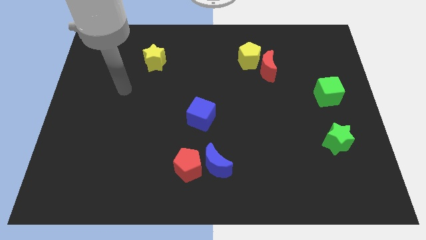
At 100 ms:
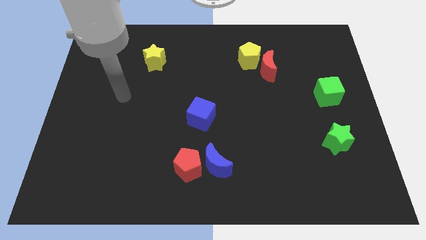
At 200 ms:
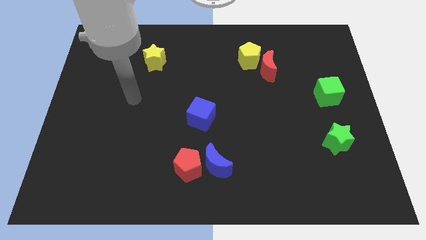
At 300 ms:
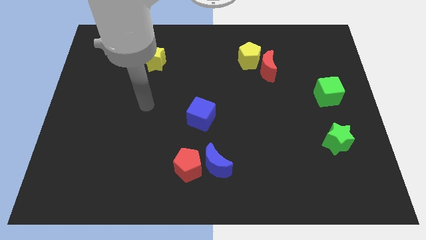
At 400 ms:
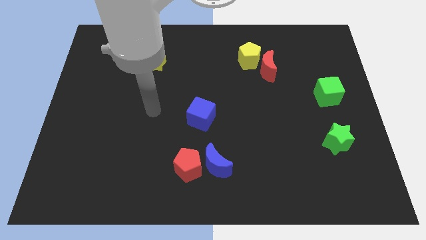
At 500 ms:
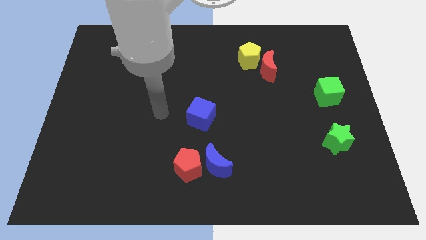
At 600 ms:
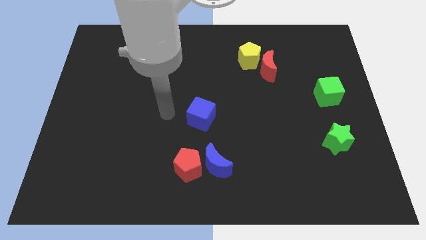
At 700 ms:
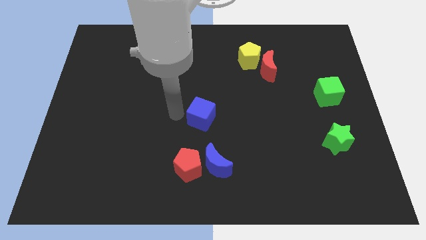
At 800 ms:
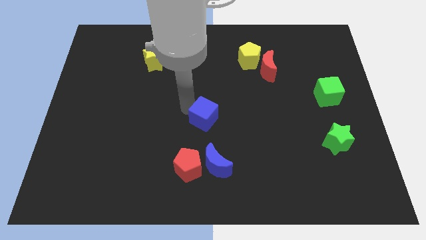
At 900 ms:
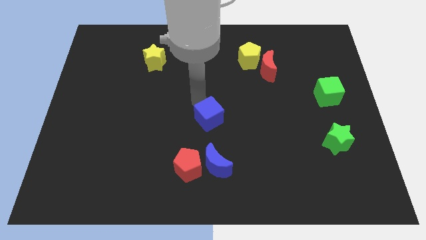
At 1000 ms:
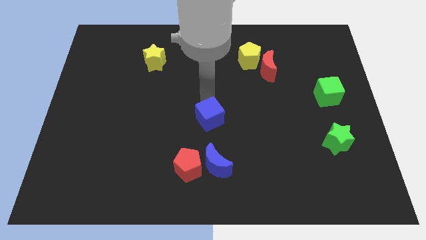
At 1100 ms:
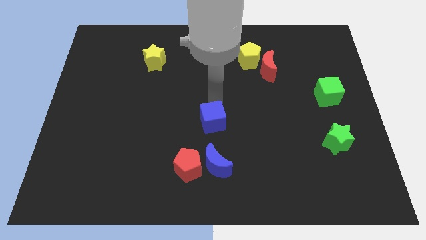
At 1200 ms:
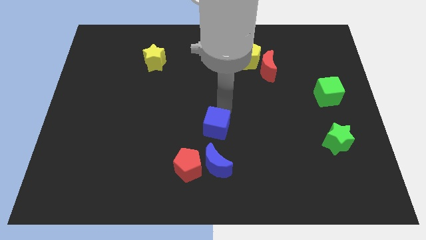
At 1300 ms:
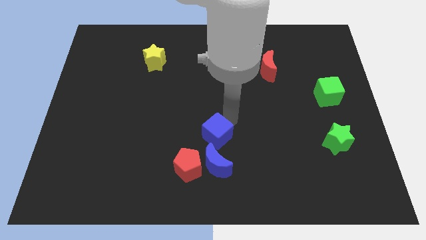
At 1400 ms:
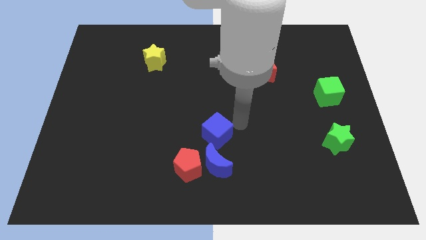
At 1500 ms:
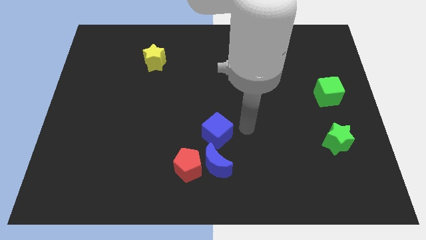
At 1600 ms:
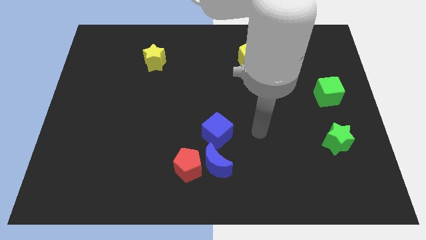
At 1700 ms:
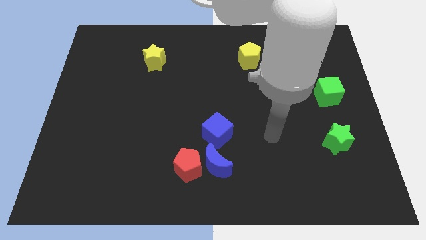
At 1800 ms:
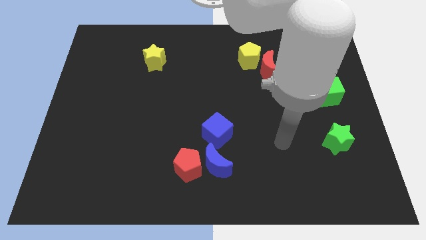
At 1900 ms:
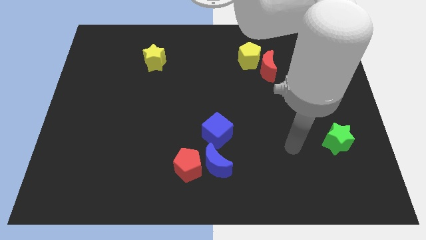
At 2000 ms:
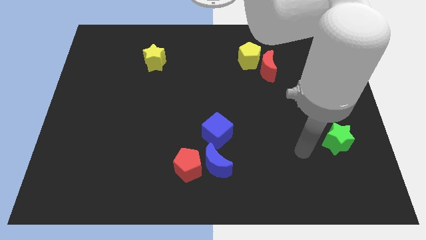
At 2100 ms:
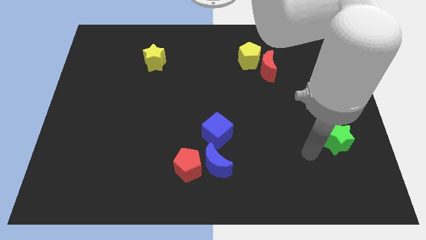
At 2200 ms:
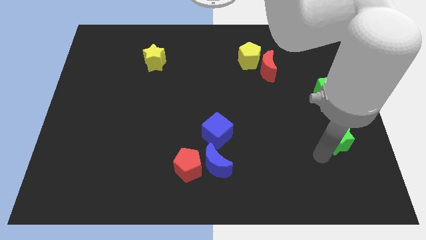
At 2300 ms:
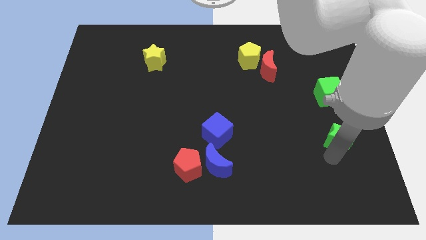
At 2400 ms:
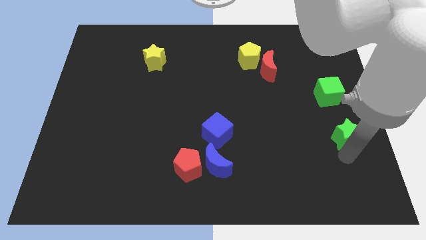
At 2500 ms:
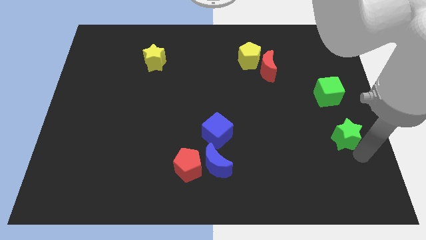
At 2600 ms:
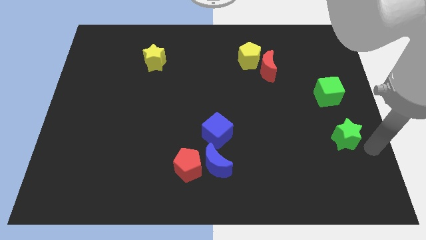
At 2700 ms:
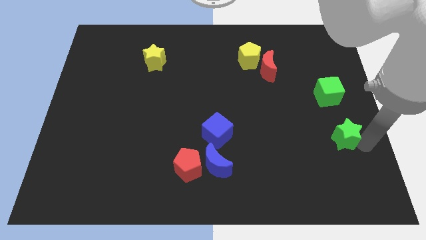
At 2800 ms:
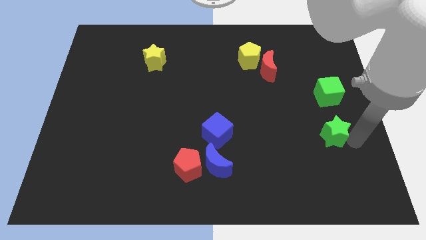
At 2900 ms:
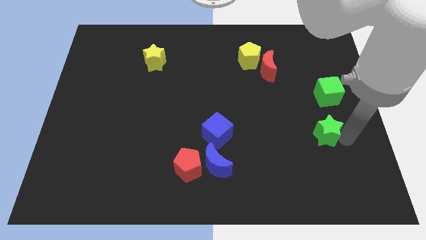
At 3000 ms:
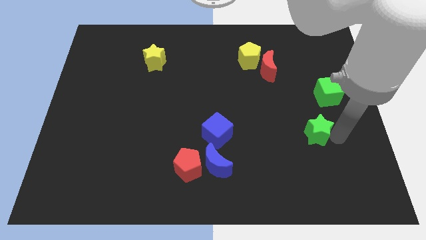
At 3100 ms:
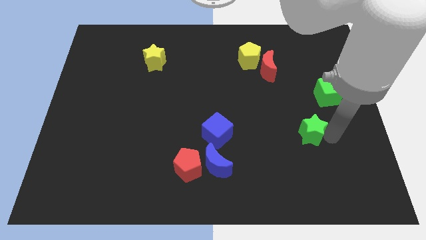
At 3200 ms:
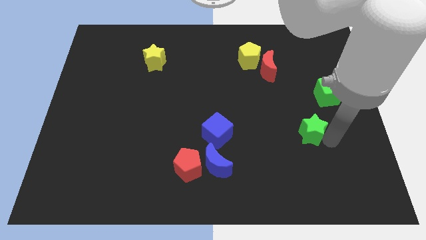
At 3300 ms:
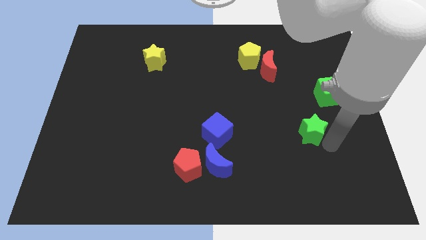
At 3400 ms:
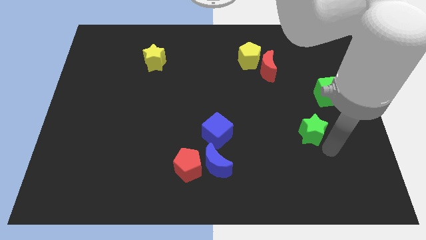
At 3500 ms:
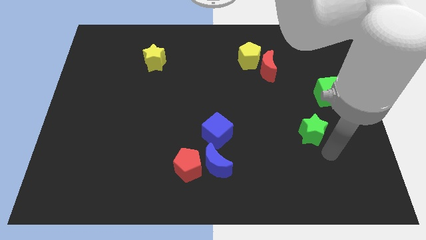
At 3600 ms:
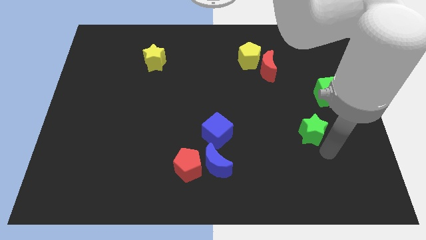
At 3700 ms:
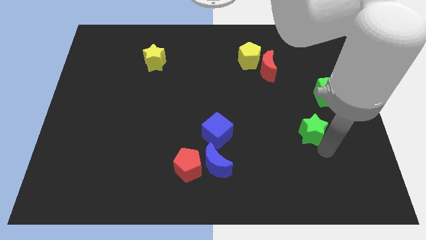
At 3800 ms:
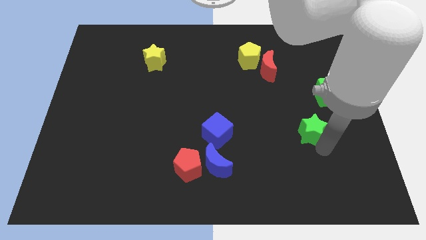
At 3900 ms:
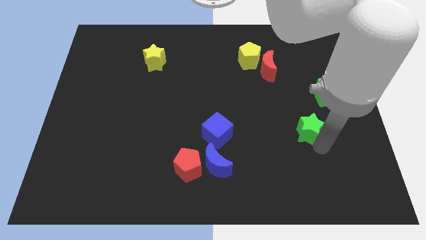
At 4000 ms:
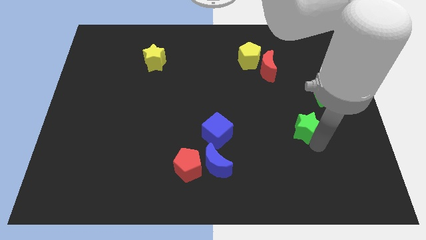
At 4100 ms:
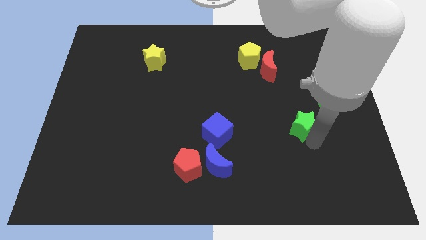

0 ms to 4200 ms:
push the green star diagonally upwards and left somewhat

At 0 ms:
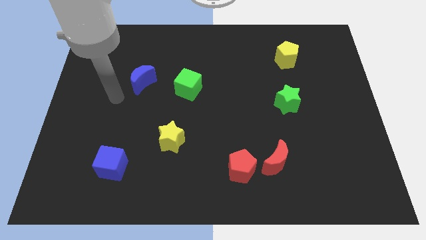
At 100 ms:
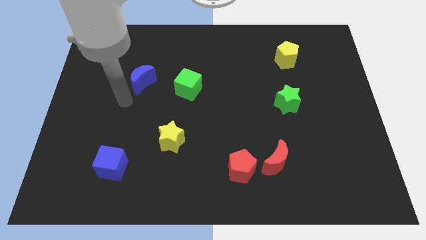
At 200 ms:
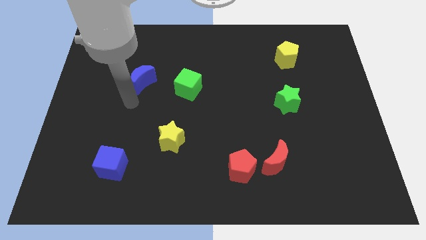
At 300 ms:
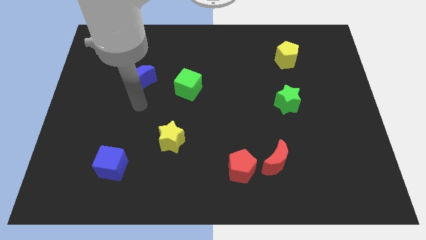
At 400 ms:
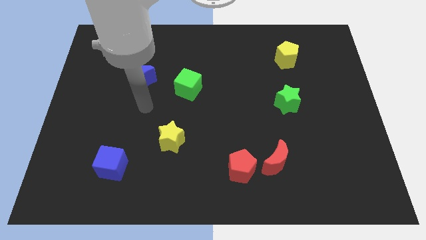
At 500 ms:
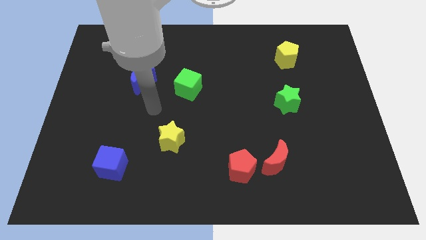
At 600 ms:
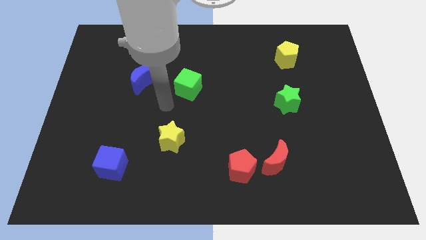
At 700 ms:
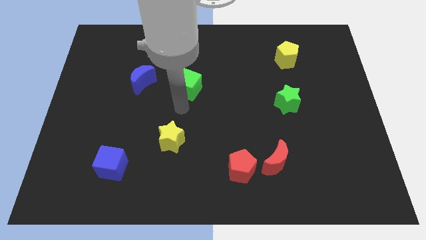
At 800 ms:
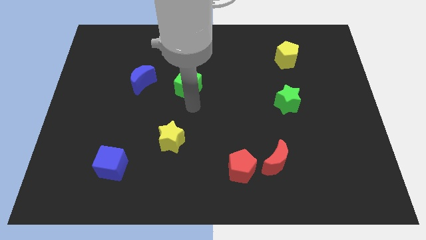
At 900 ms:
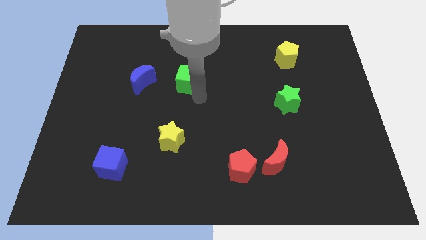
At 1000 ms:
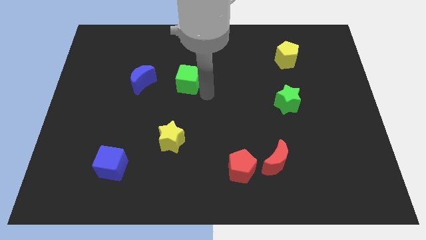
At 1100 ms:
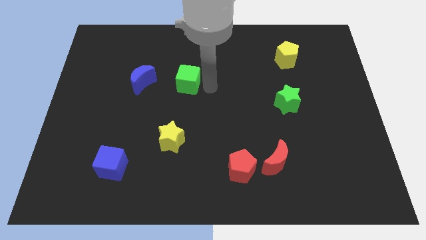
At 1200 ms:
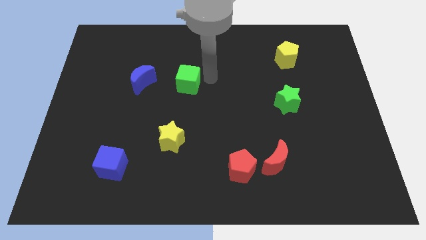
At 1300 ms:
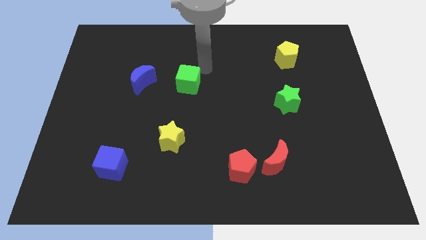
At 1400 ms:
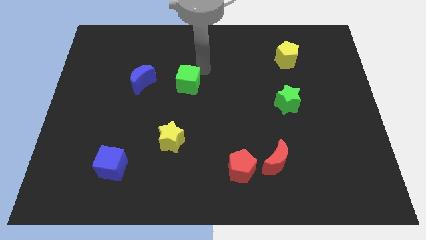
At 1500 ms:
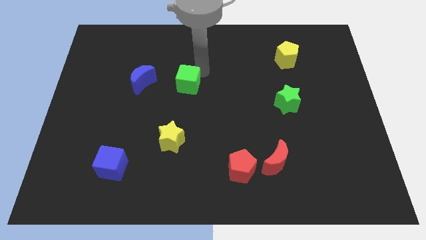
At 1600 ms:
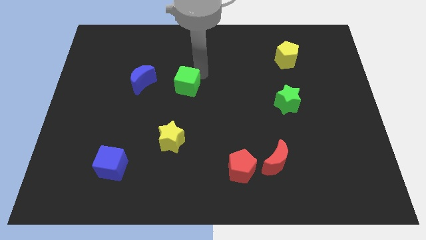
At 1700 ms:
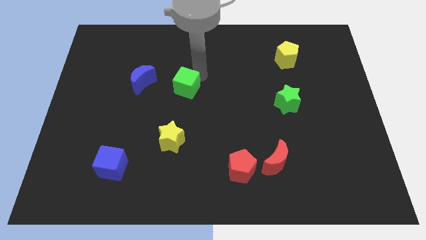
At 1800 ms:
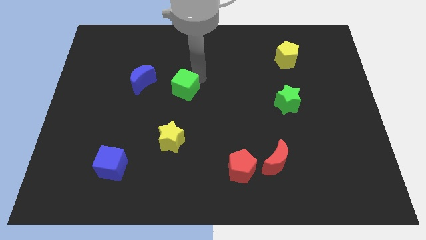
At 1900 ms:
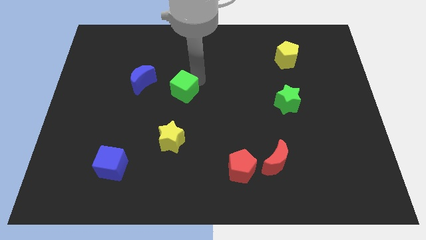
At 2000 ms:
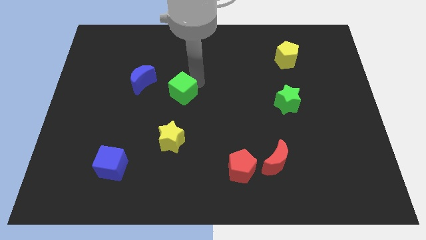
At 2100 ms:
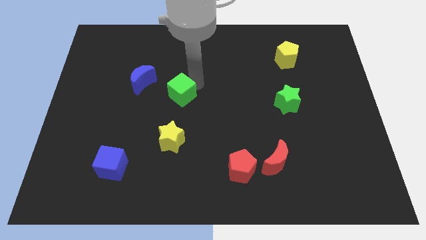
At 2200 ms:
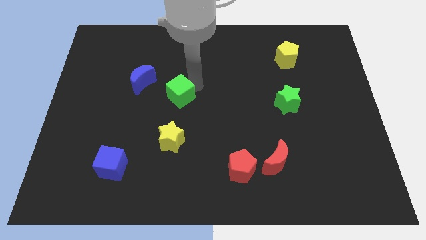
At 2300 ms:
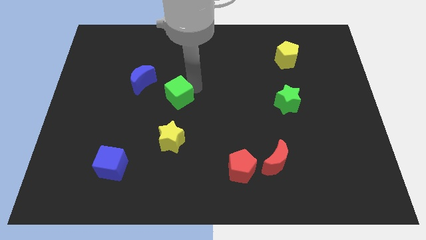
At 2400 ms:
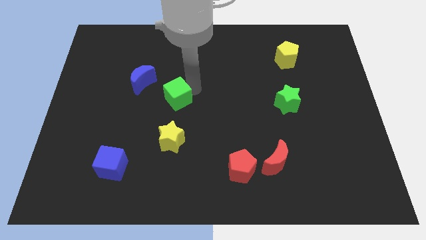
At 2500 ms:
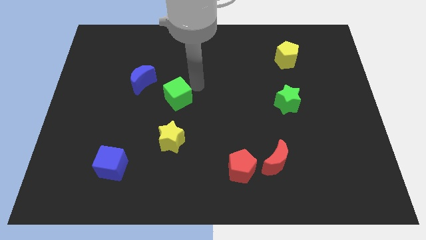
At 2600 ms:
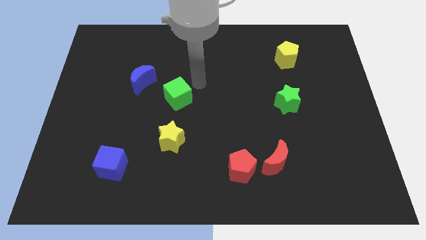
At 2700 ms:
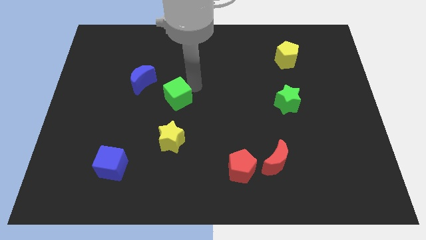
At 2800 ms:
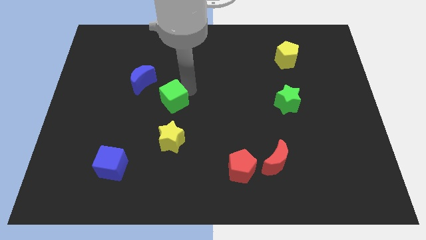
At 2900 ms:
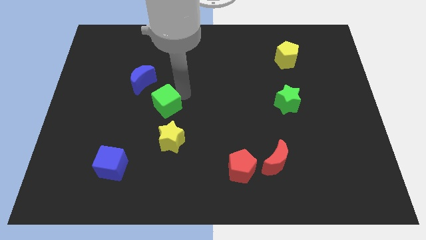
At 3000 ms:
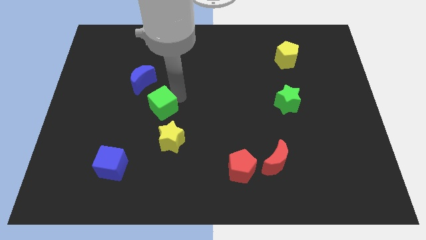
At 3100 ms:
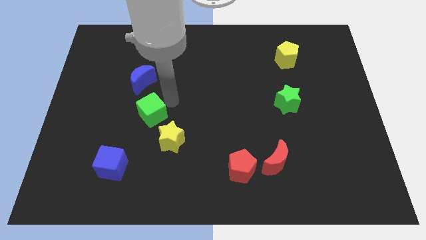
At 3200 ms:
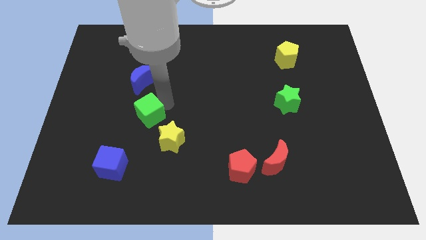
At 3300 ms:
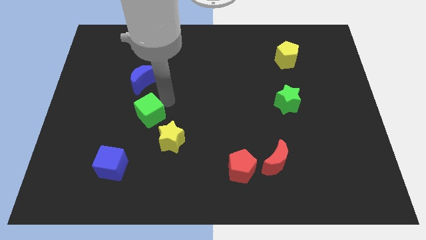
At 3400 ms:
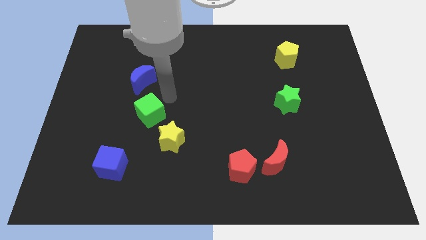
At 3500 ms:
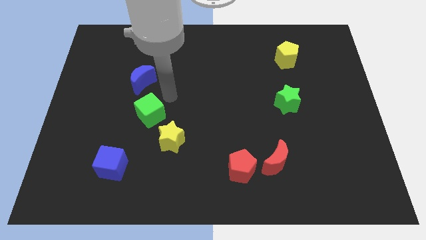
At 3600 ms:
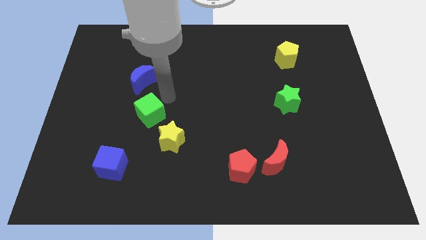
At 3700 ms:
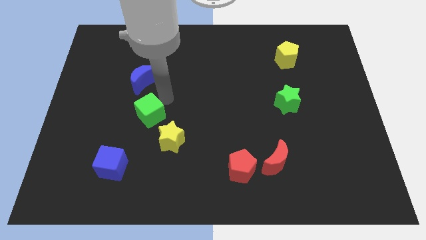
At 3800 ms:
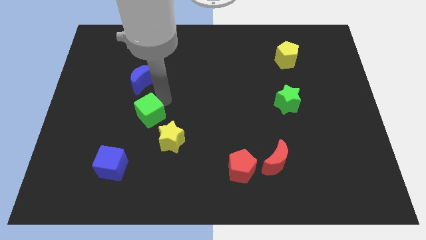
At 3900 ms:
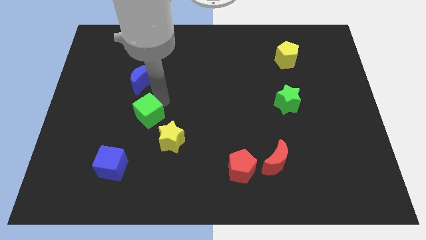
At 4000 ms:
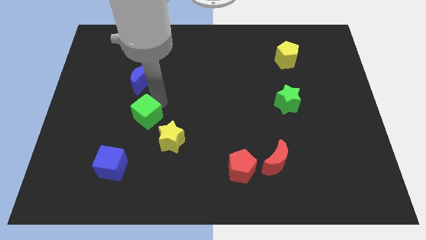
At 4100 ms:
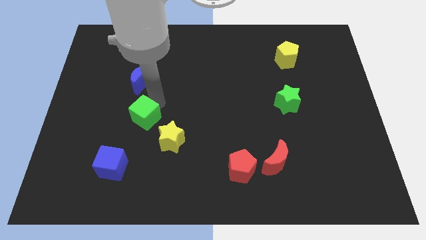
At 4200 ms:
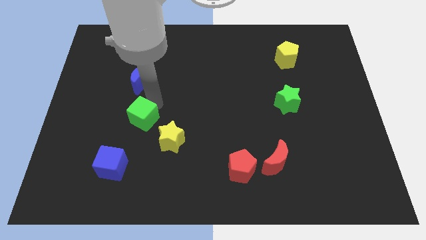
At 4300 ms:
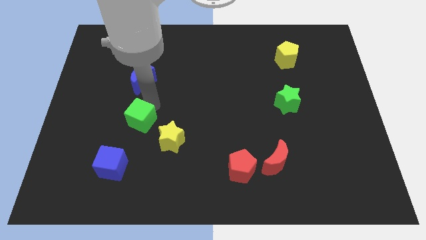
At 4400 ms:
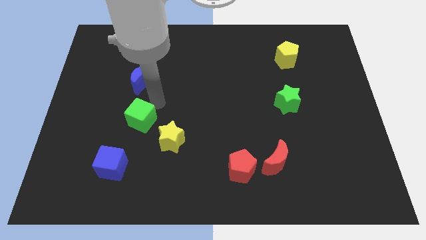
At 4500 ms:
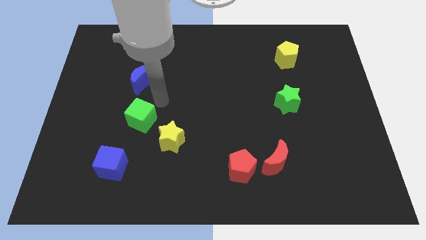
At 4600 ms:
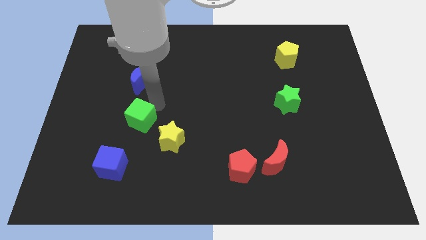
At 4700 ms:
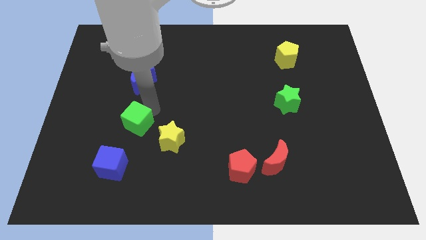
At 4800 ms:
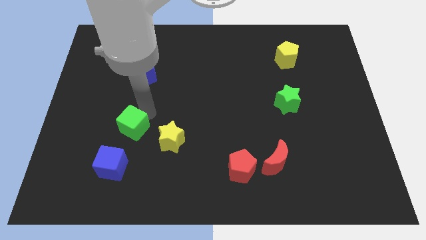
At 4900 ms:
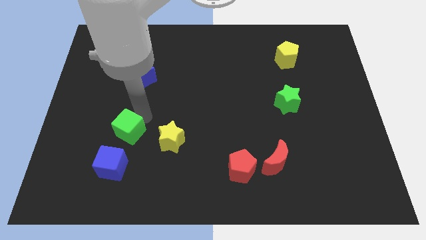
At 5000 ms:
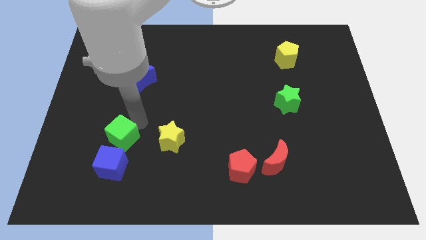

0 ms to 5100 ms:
move the green cube diagonally downwards and left
